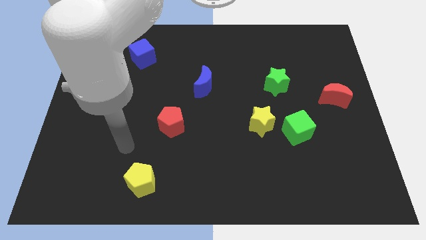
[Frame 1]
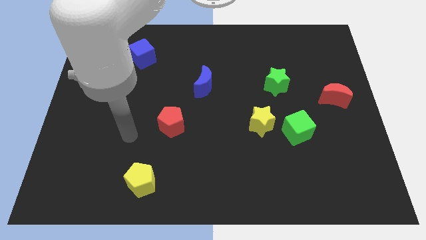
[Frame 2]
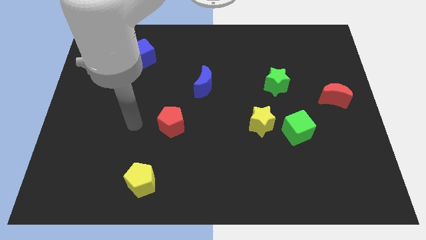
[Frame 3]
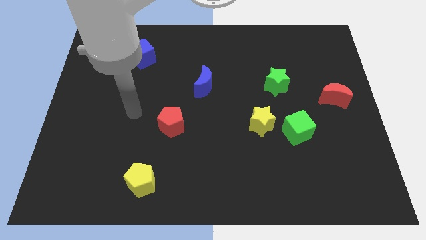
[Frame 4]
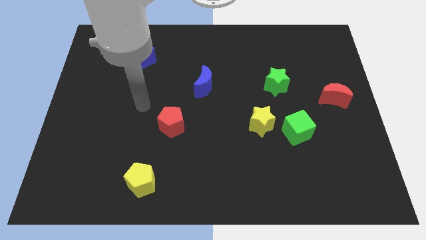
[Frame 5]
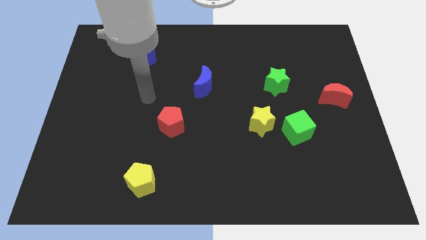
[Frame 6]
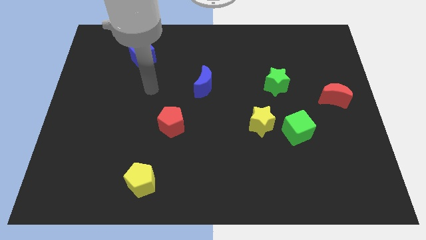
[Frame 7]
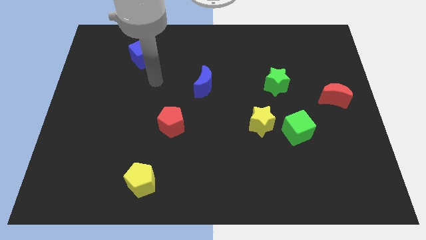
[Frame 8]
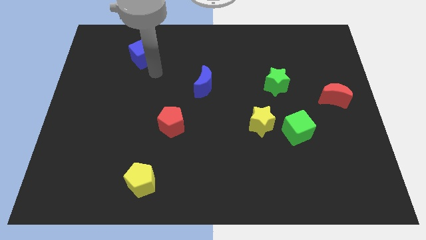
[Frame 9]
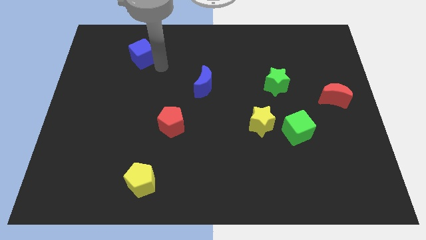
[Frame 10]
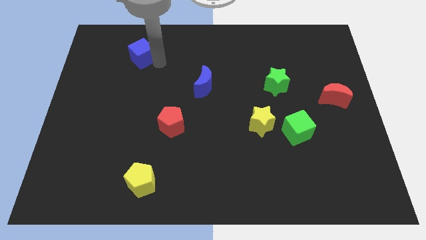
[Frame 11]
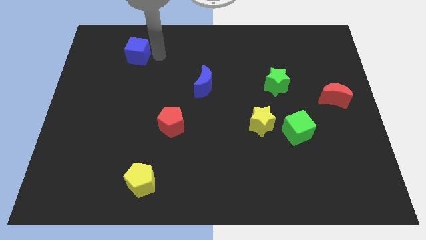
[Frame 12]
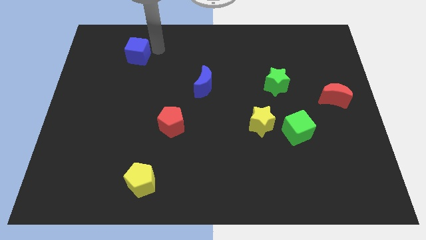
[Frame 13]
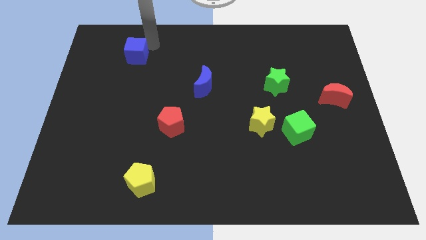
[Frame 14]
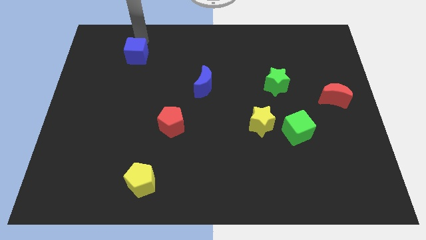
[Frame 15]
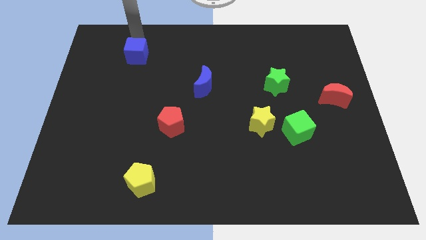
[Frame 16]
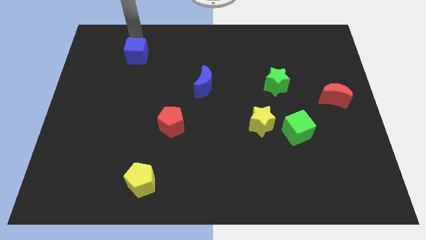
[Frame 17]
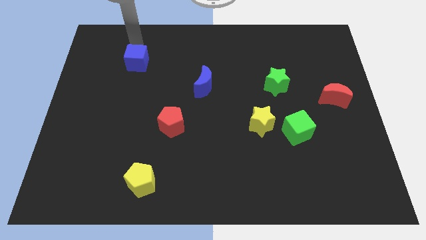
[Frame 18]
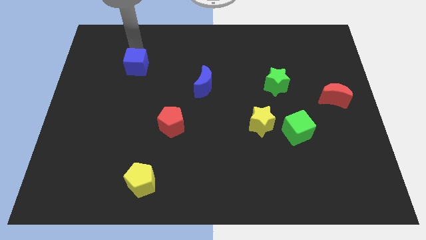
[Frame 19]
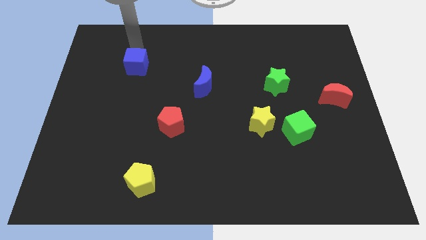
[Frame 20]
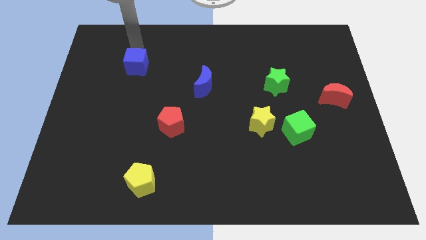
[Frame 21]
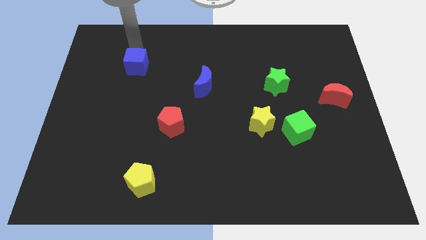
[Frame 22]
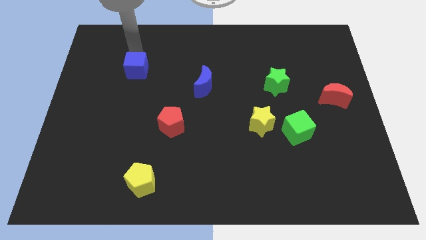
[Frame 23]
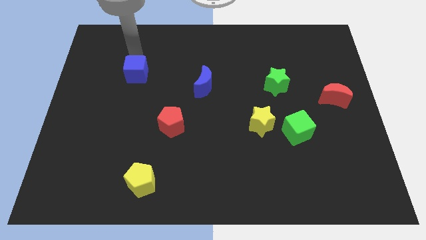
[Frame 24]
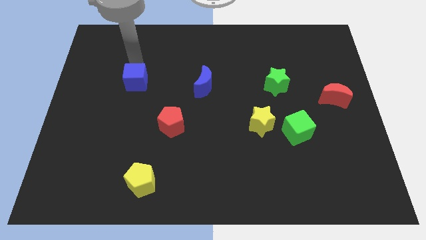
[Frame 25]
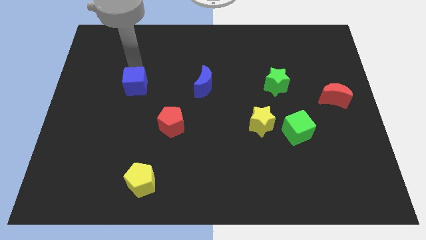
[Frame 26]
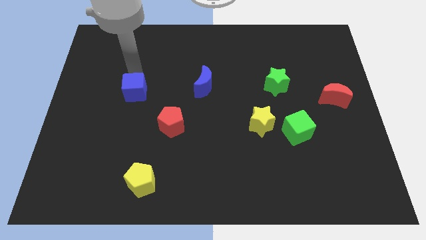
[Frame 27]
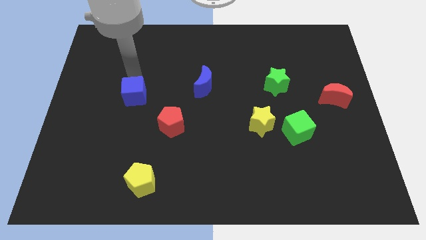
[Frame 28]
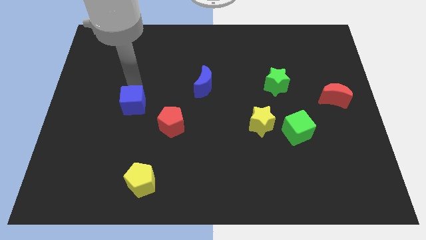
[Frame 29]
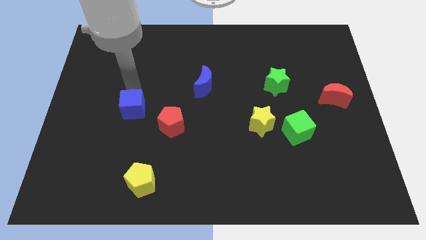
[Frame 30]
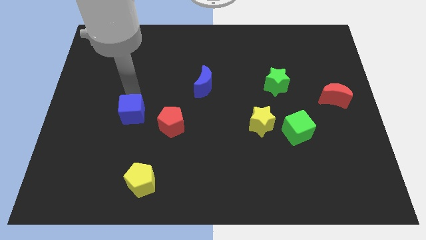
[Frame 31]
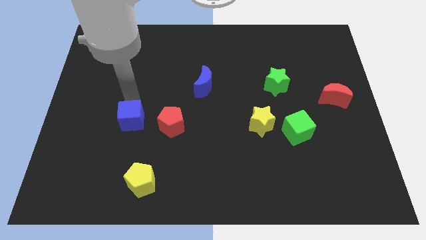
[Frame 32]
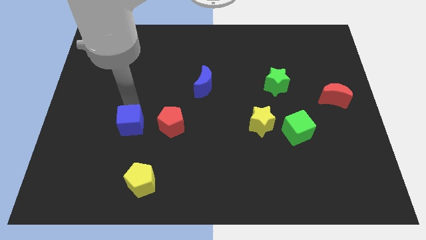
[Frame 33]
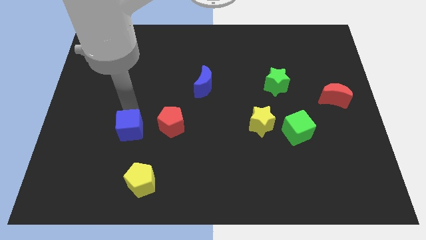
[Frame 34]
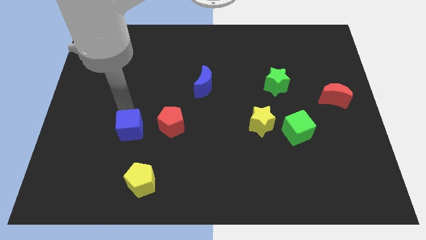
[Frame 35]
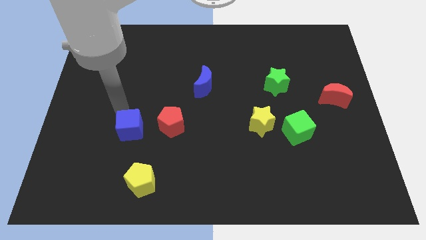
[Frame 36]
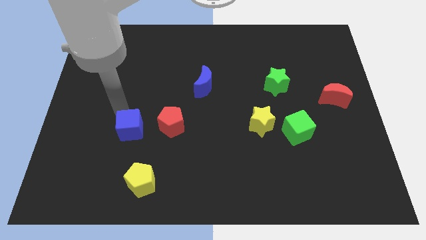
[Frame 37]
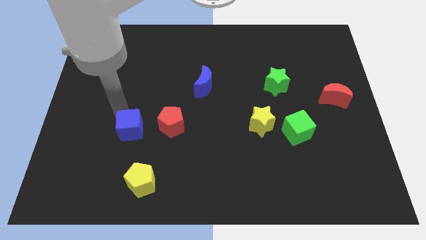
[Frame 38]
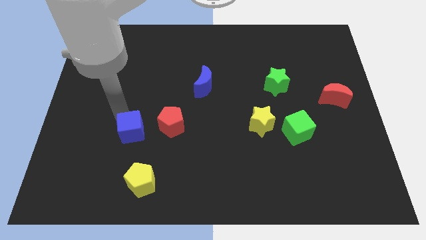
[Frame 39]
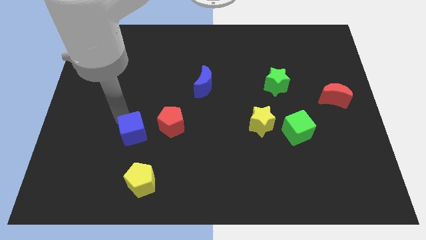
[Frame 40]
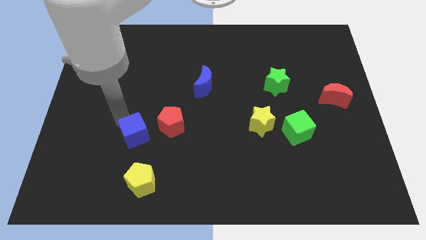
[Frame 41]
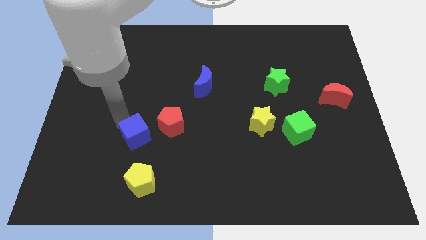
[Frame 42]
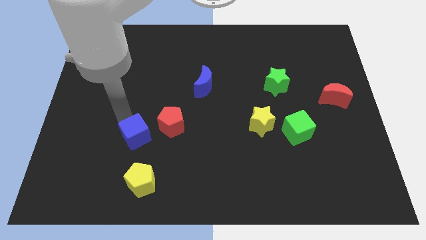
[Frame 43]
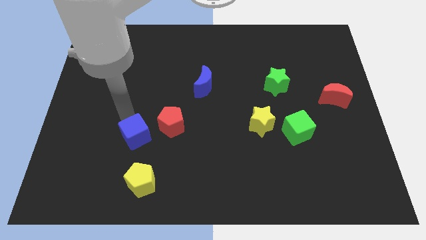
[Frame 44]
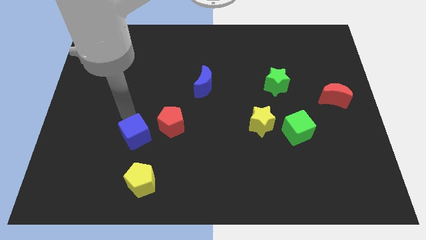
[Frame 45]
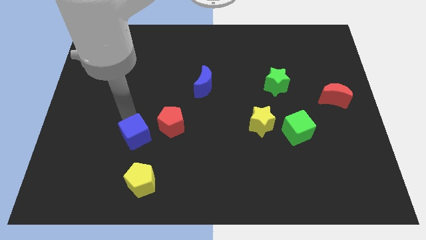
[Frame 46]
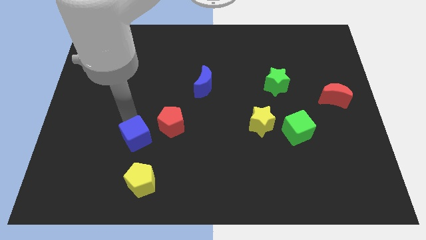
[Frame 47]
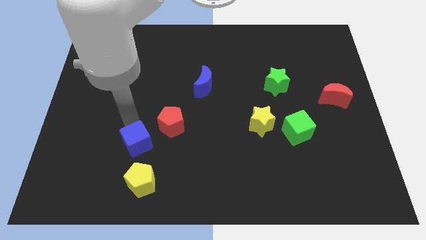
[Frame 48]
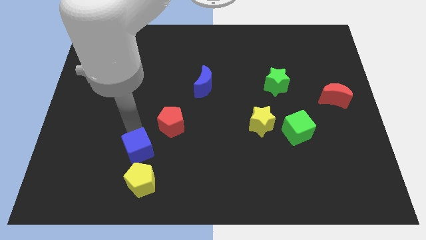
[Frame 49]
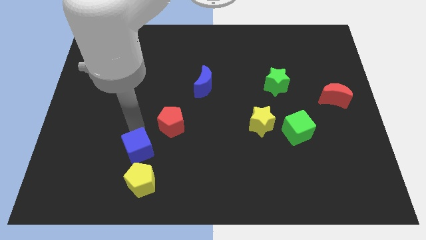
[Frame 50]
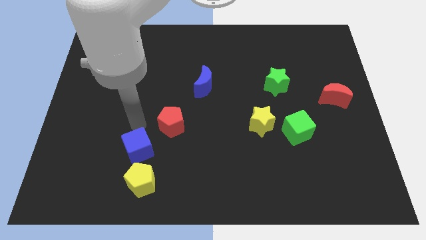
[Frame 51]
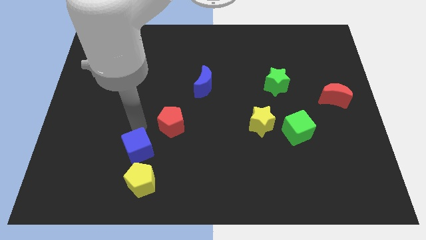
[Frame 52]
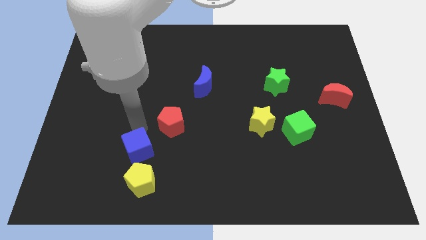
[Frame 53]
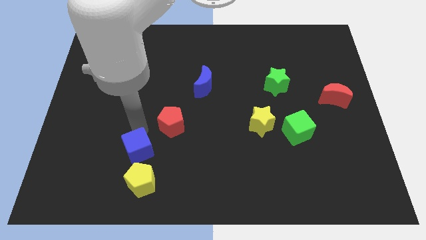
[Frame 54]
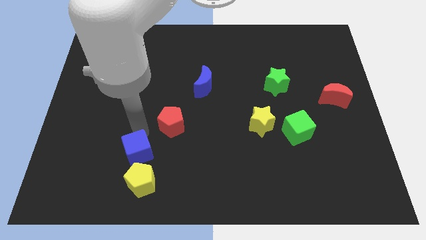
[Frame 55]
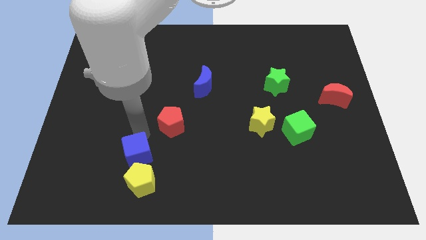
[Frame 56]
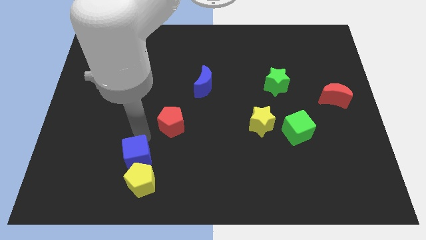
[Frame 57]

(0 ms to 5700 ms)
slide the blue cube close to the yellow pentagon

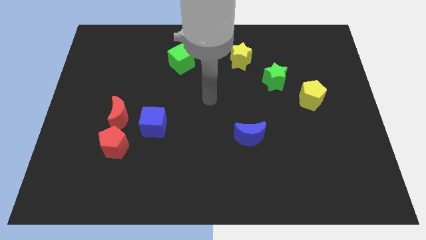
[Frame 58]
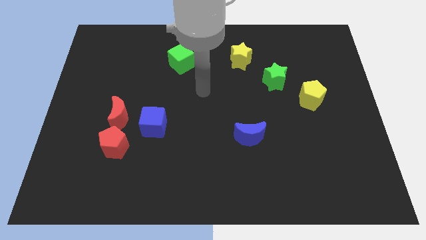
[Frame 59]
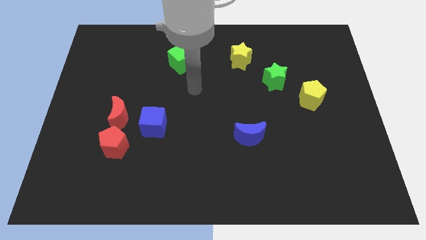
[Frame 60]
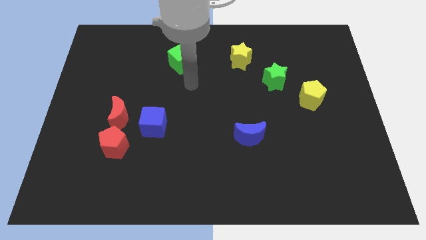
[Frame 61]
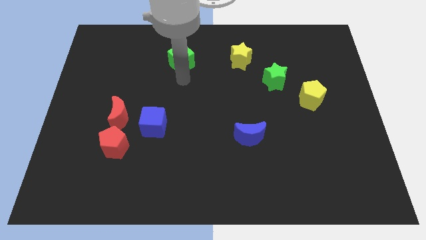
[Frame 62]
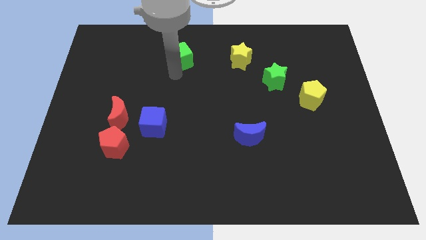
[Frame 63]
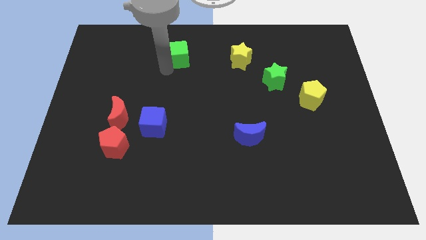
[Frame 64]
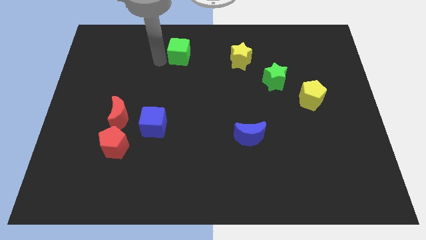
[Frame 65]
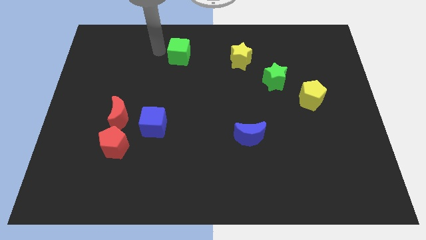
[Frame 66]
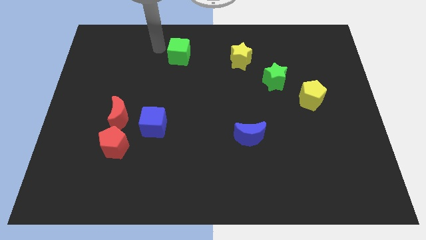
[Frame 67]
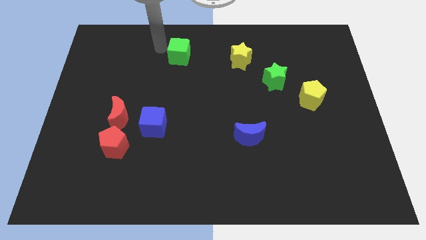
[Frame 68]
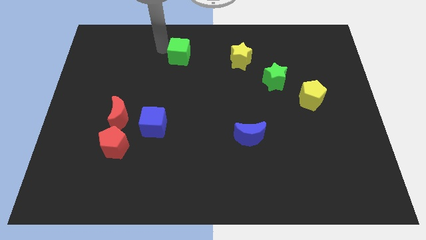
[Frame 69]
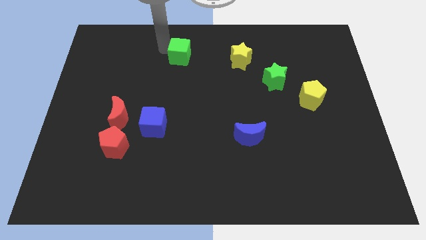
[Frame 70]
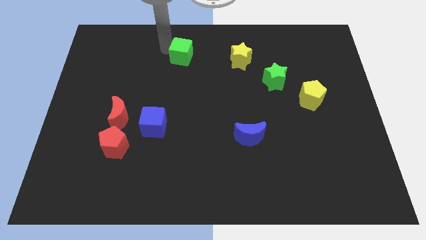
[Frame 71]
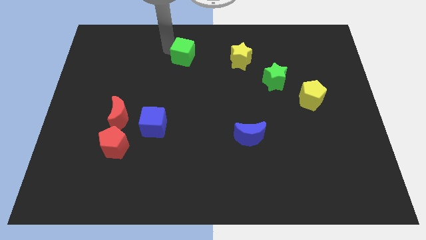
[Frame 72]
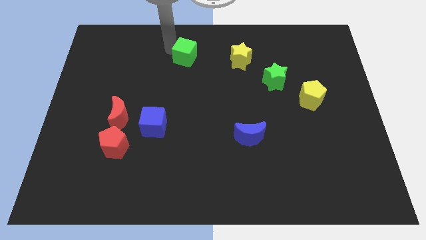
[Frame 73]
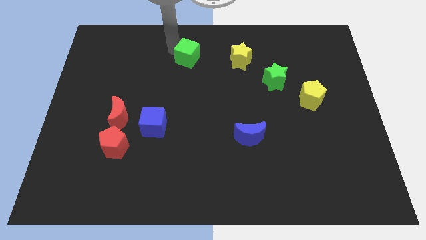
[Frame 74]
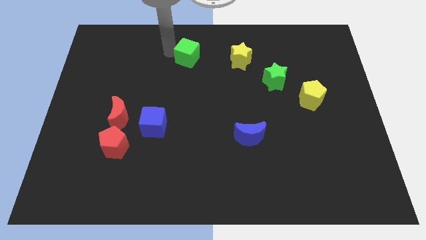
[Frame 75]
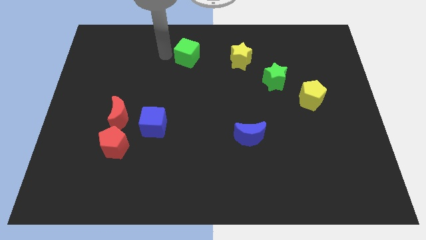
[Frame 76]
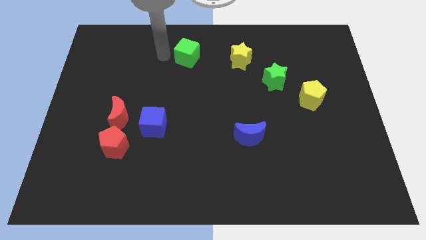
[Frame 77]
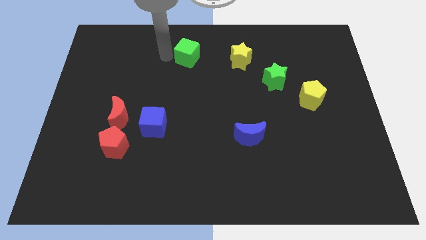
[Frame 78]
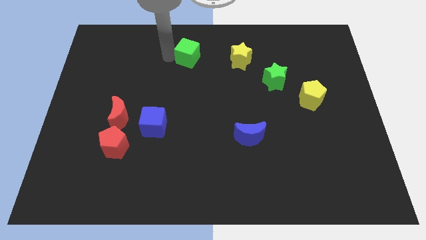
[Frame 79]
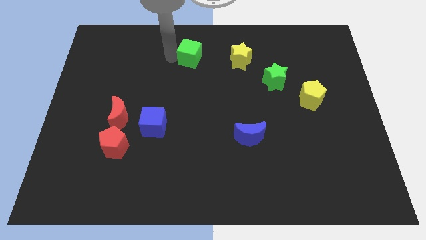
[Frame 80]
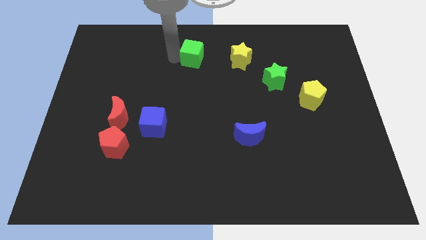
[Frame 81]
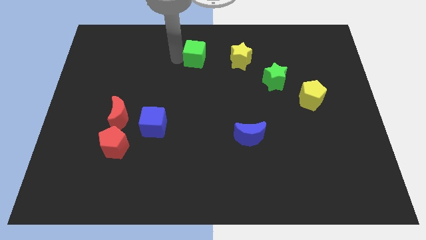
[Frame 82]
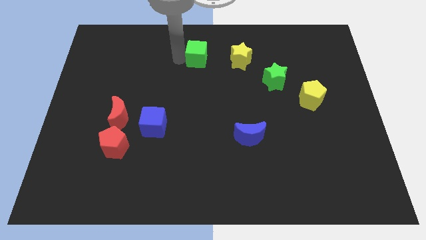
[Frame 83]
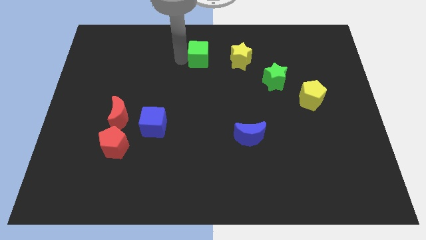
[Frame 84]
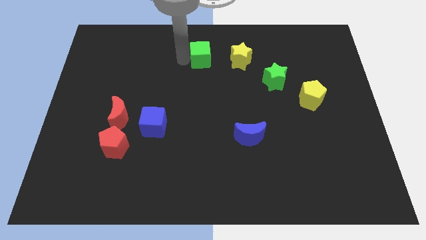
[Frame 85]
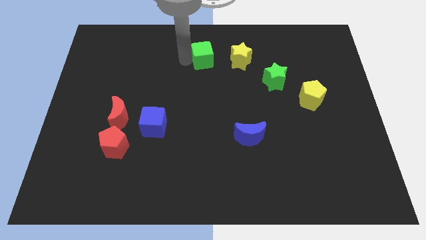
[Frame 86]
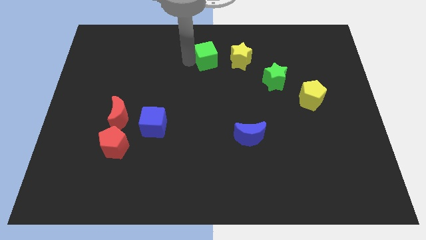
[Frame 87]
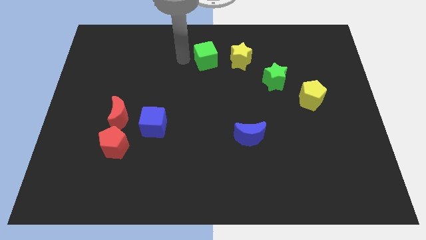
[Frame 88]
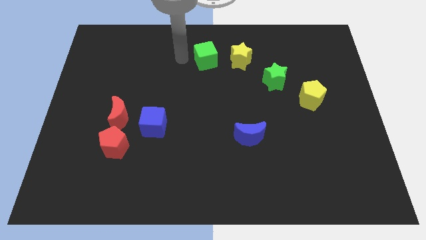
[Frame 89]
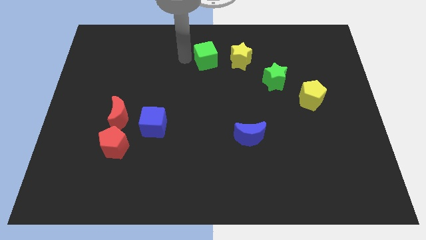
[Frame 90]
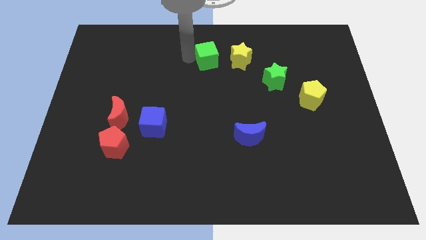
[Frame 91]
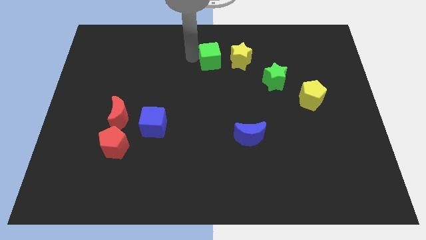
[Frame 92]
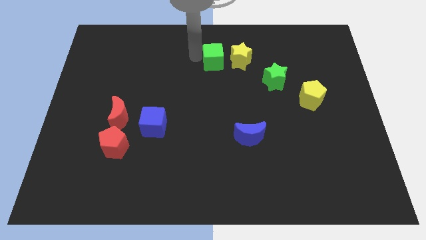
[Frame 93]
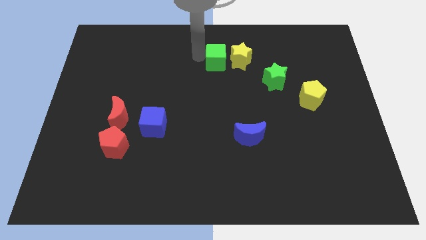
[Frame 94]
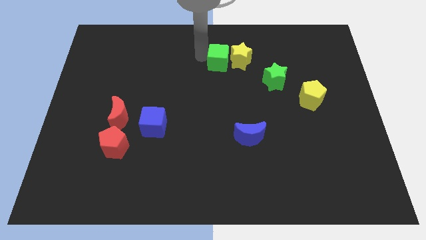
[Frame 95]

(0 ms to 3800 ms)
push the green cube to the yellow star
